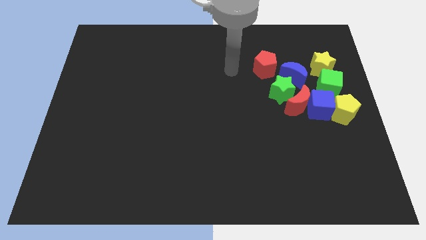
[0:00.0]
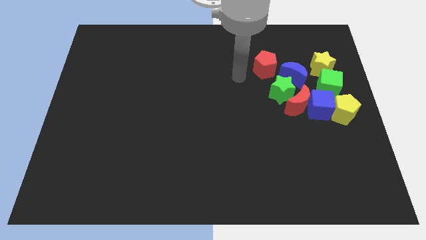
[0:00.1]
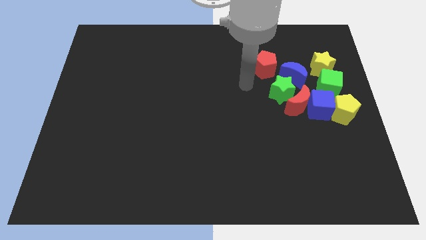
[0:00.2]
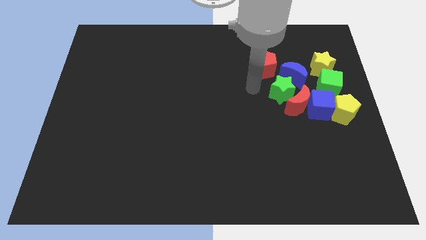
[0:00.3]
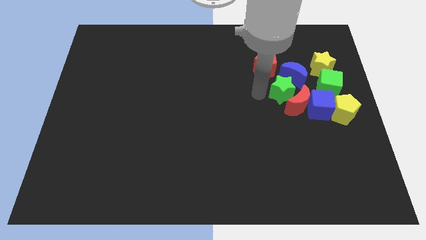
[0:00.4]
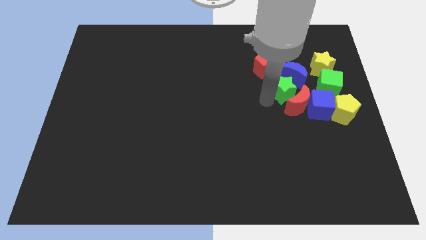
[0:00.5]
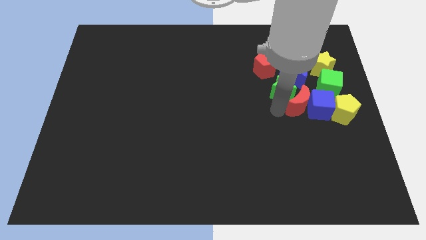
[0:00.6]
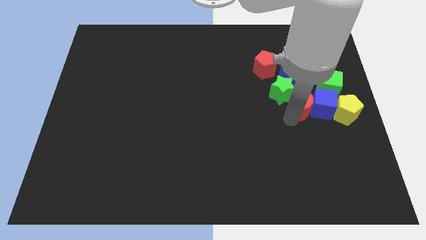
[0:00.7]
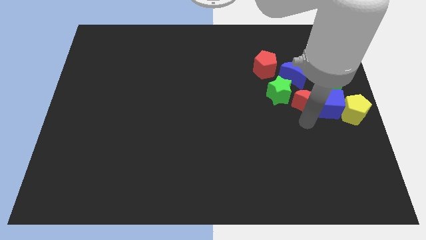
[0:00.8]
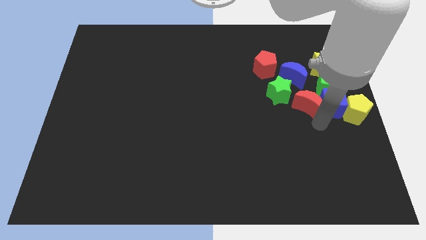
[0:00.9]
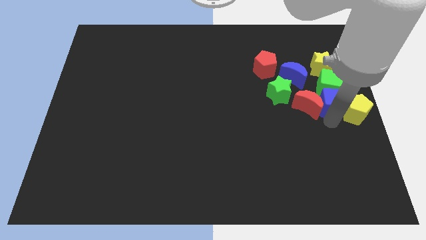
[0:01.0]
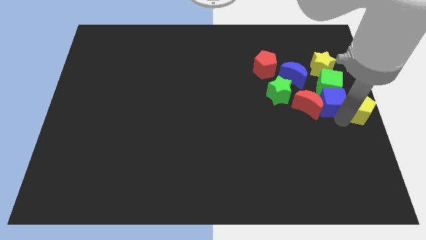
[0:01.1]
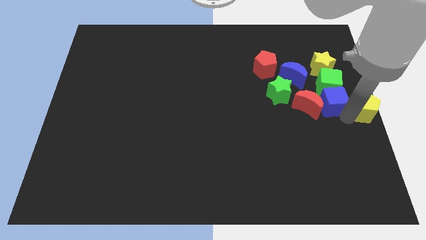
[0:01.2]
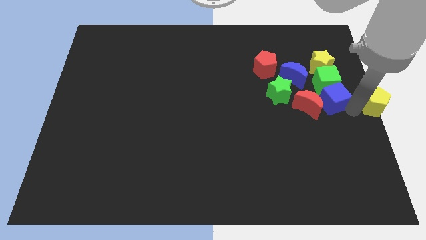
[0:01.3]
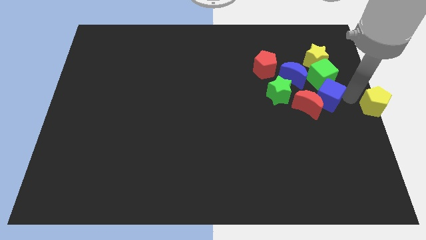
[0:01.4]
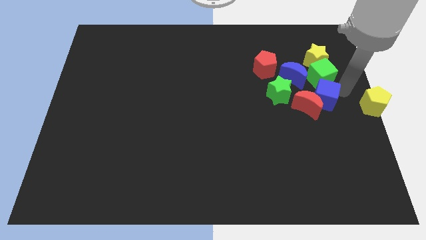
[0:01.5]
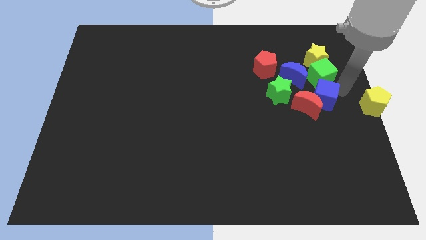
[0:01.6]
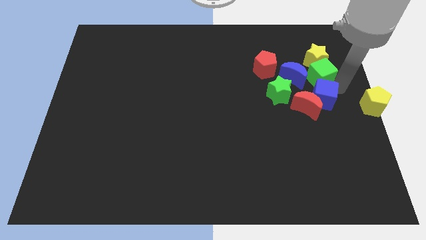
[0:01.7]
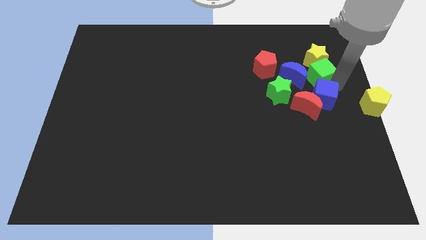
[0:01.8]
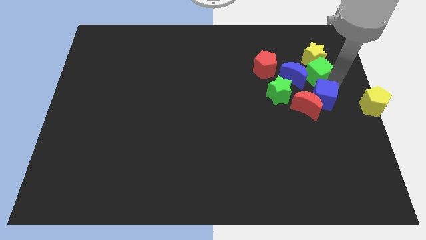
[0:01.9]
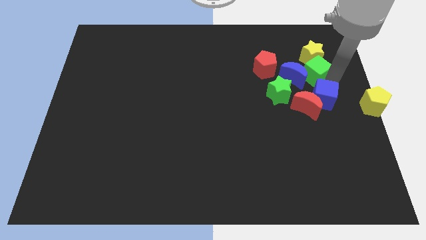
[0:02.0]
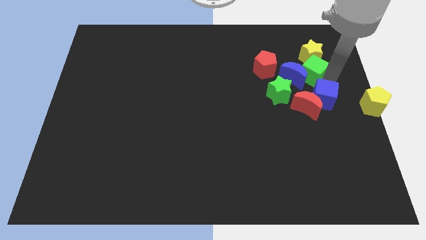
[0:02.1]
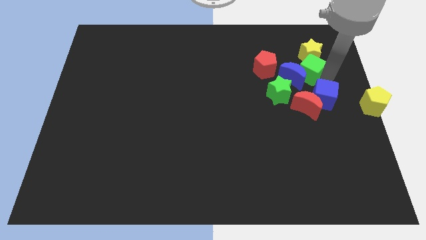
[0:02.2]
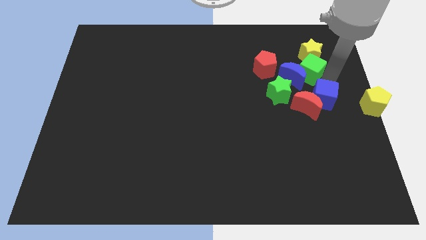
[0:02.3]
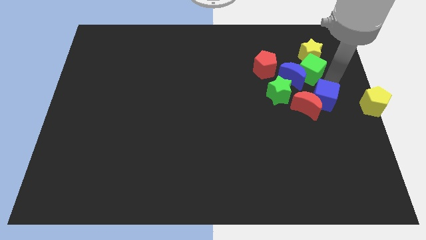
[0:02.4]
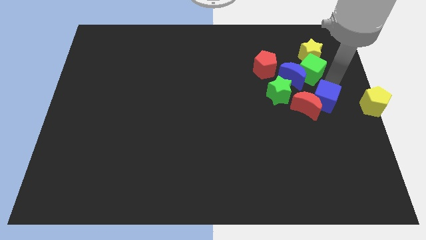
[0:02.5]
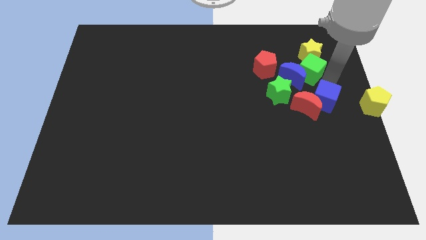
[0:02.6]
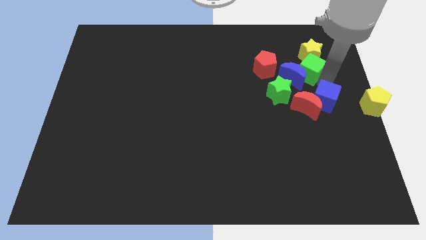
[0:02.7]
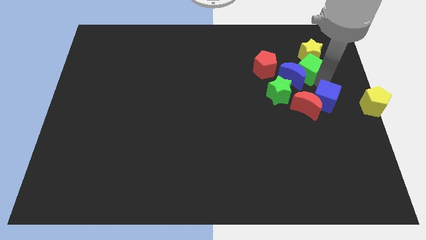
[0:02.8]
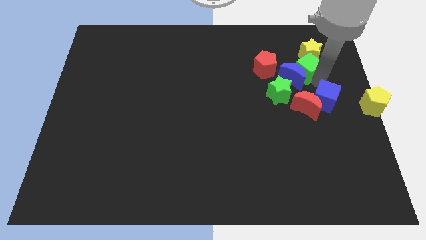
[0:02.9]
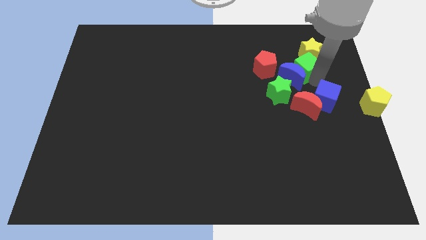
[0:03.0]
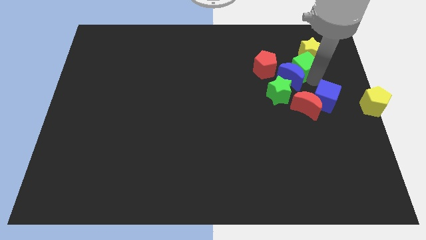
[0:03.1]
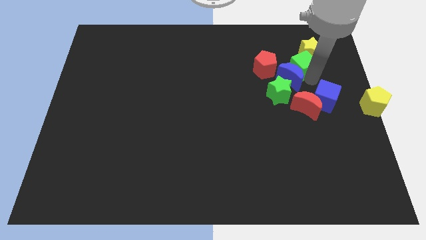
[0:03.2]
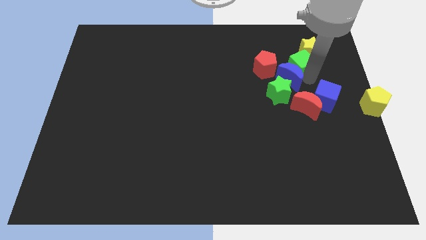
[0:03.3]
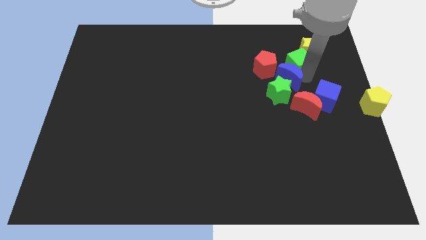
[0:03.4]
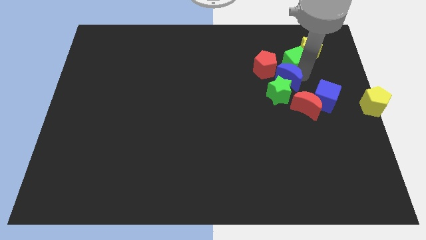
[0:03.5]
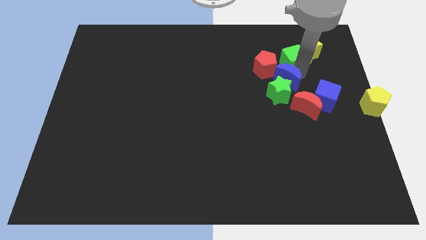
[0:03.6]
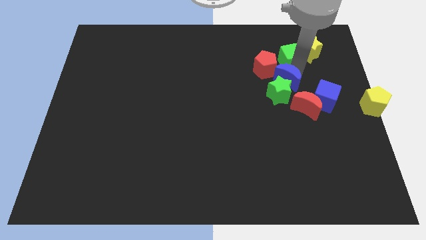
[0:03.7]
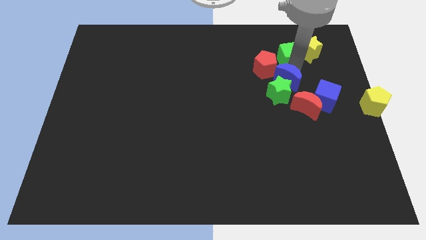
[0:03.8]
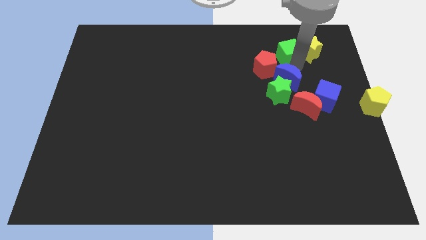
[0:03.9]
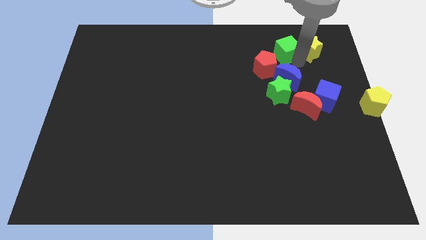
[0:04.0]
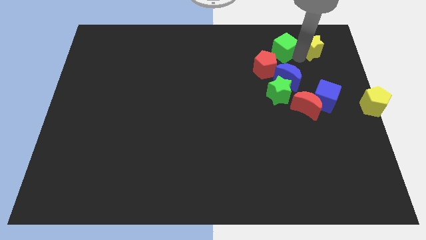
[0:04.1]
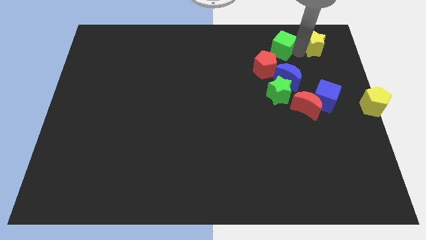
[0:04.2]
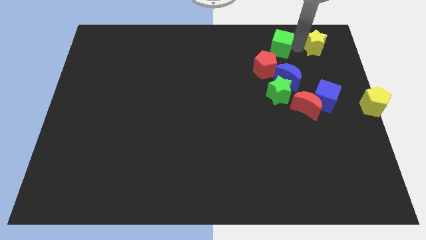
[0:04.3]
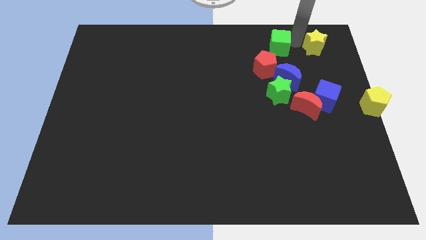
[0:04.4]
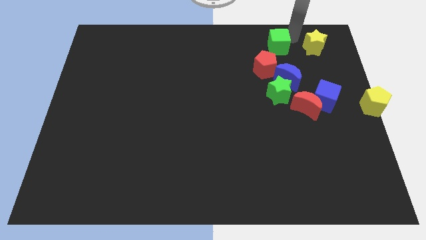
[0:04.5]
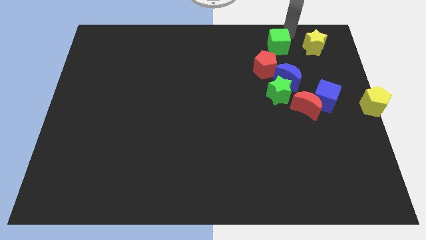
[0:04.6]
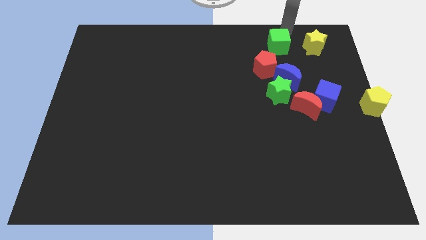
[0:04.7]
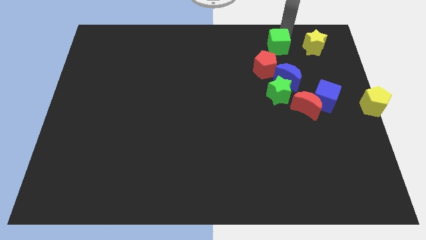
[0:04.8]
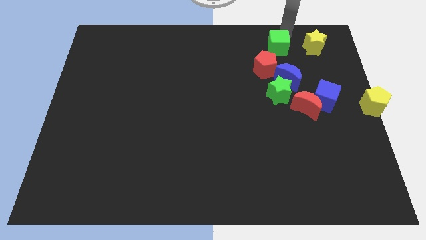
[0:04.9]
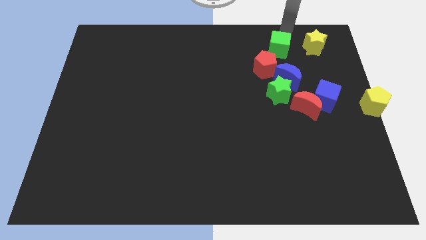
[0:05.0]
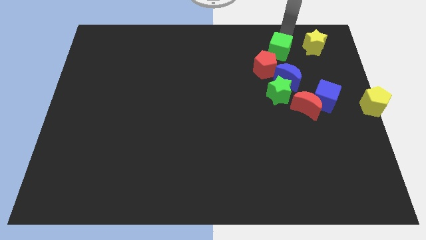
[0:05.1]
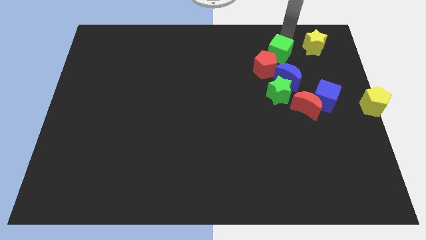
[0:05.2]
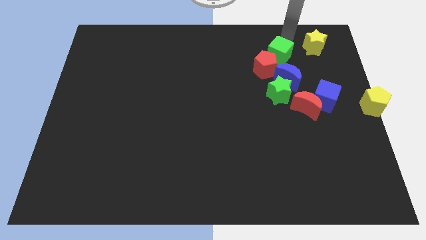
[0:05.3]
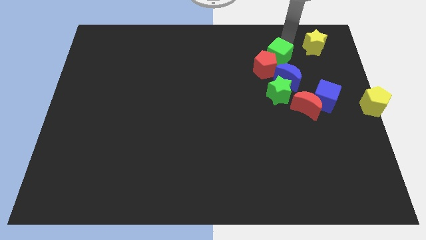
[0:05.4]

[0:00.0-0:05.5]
move the green cube next to the red pentagon

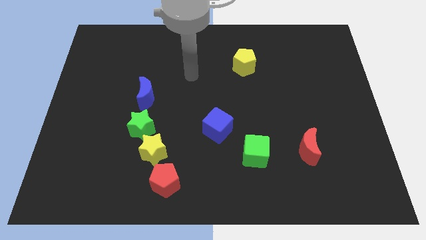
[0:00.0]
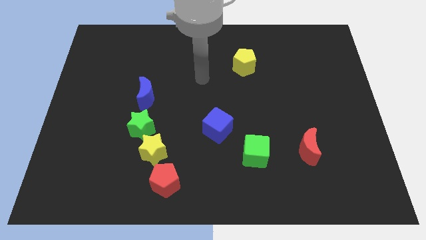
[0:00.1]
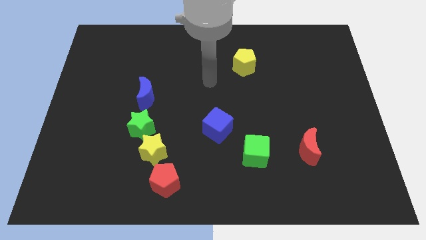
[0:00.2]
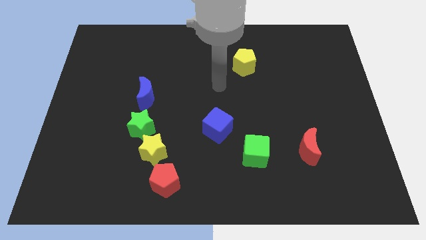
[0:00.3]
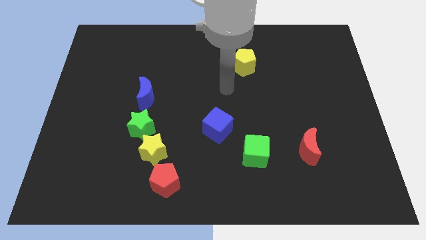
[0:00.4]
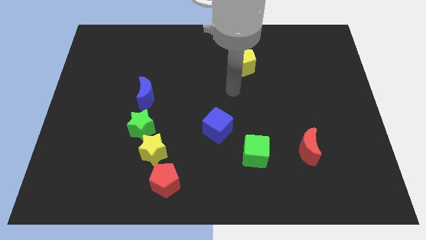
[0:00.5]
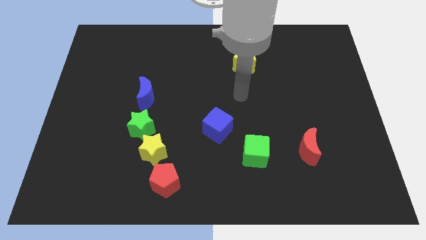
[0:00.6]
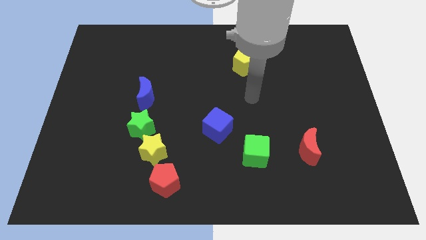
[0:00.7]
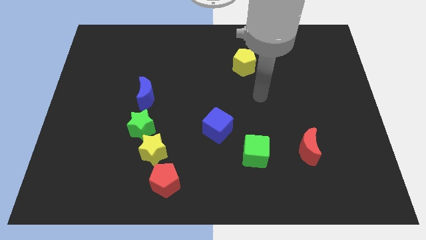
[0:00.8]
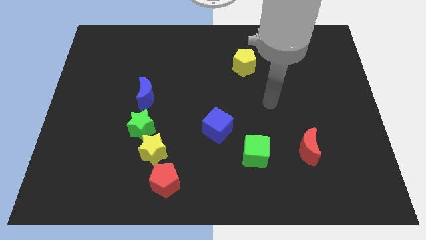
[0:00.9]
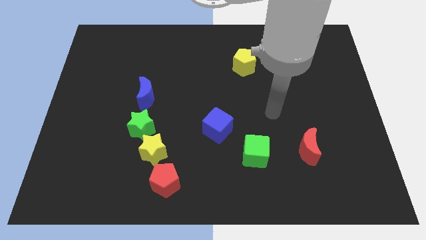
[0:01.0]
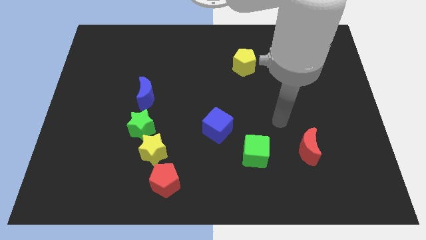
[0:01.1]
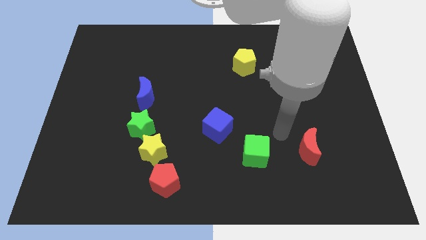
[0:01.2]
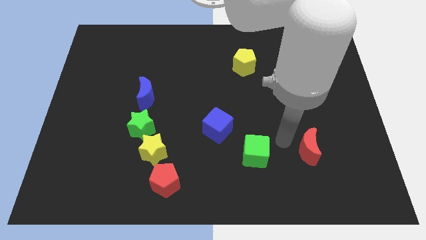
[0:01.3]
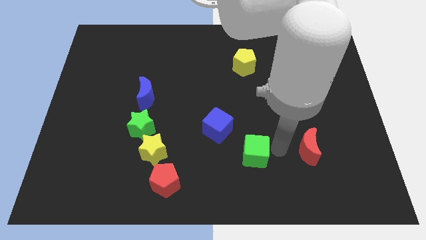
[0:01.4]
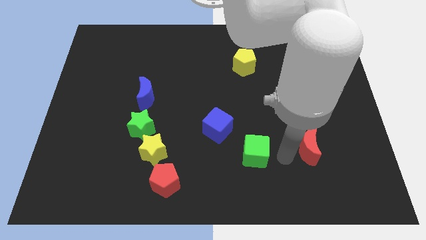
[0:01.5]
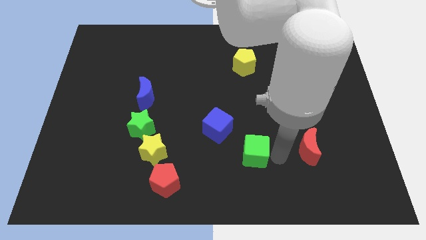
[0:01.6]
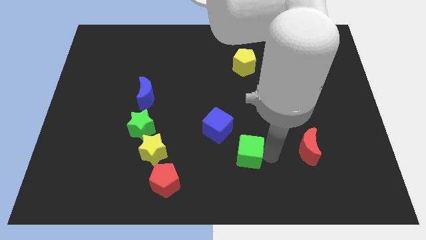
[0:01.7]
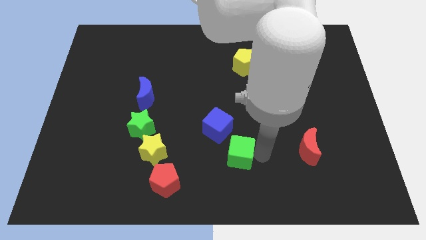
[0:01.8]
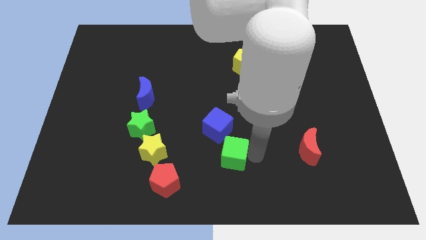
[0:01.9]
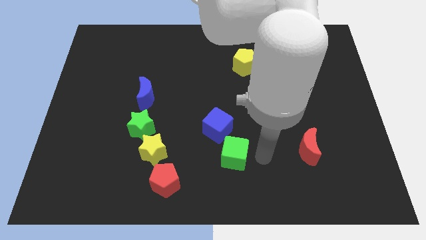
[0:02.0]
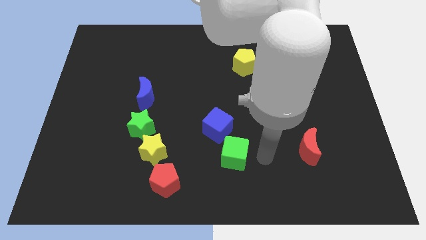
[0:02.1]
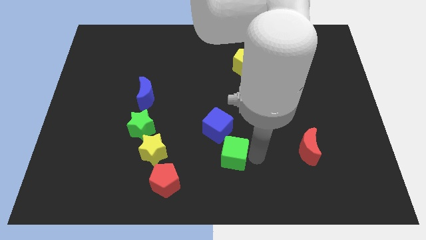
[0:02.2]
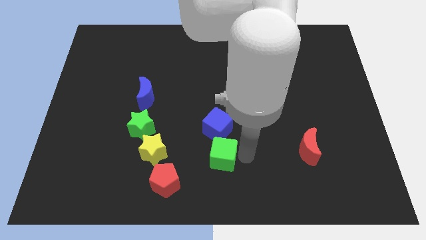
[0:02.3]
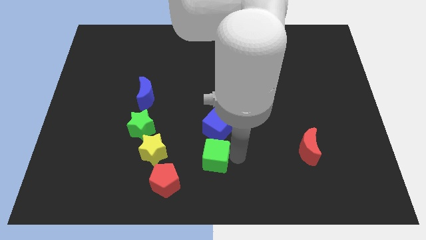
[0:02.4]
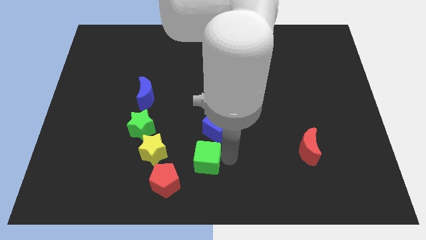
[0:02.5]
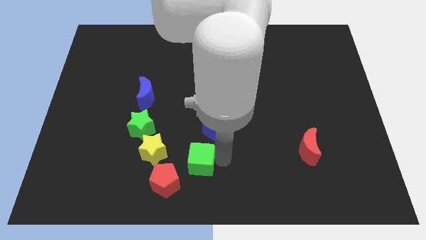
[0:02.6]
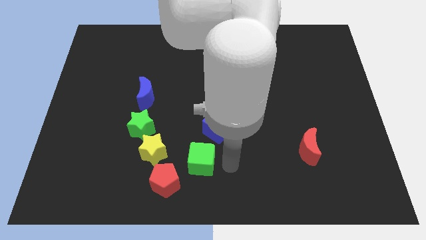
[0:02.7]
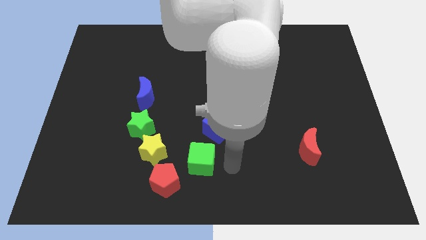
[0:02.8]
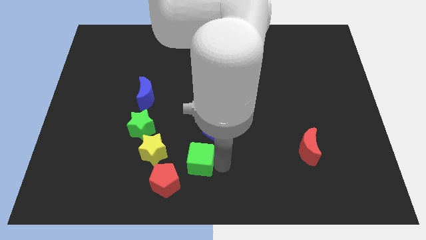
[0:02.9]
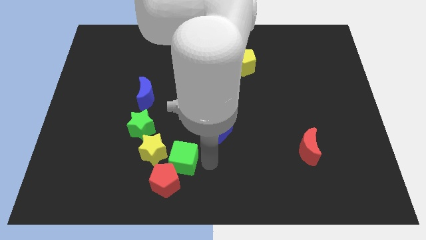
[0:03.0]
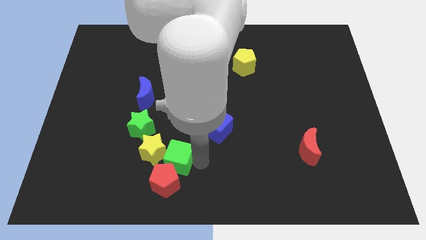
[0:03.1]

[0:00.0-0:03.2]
put the green cube towards the yellow star
